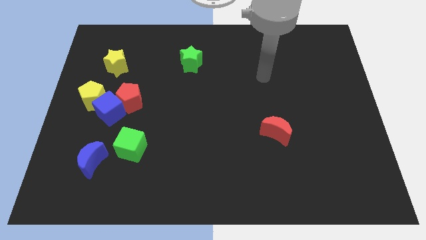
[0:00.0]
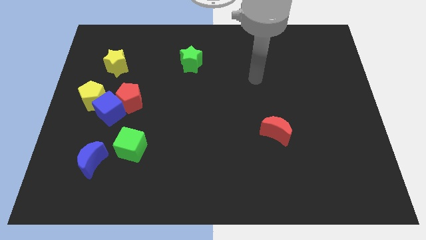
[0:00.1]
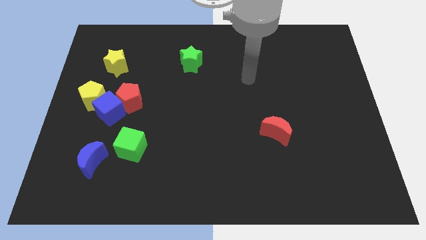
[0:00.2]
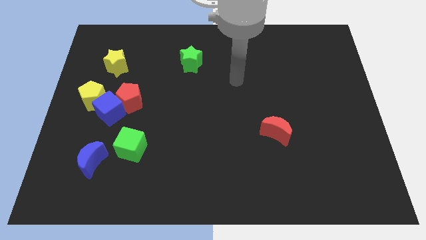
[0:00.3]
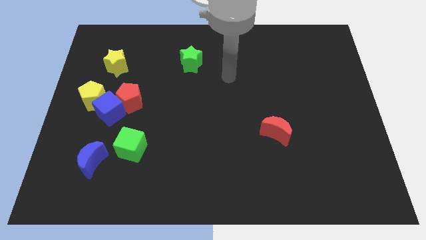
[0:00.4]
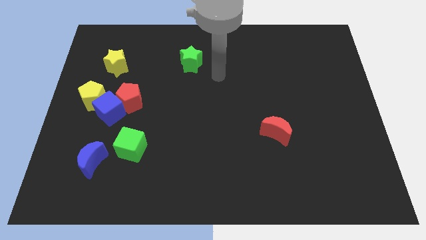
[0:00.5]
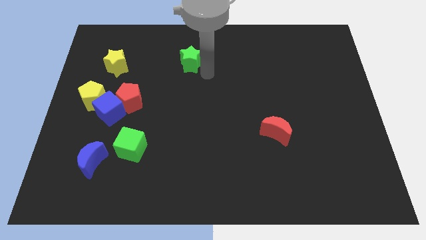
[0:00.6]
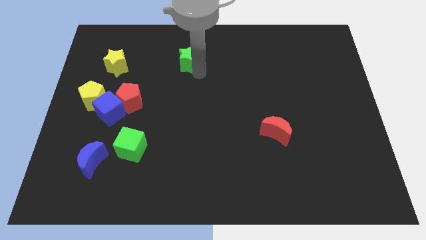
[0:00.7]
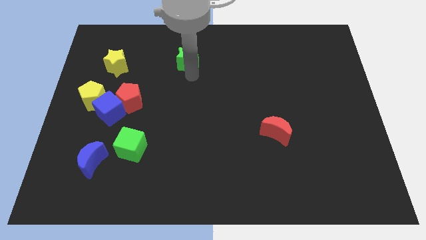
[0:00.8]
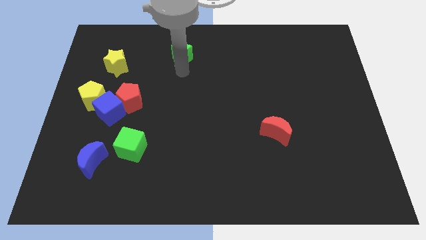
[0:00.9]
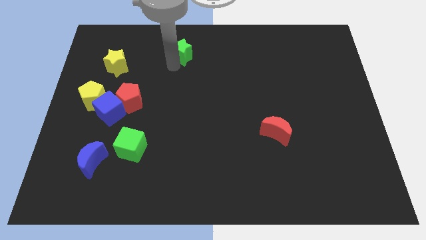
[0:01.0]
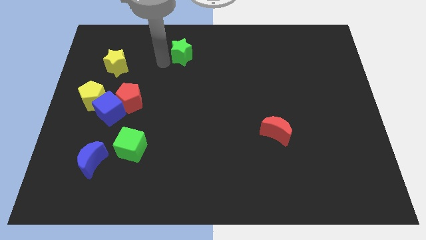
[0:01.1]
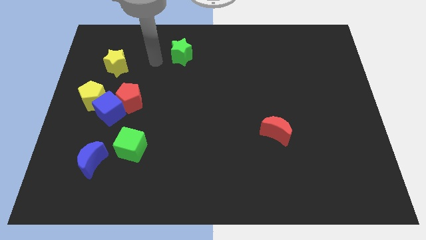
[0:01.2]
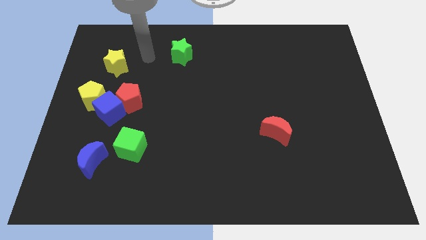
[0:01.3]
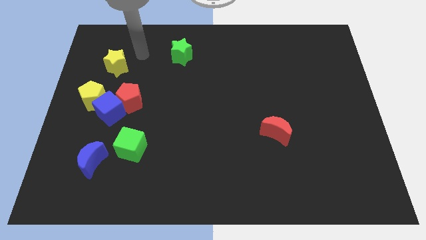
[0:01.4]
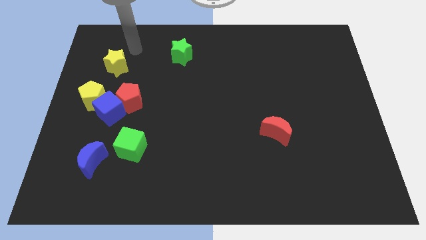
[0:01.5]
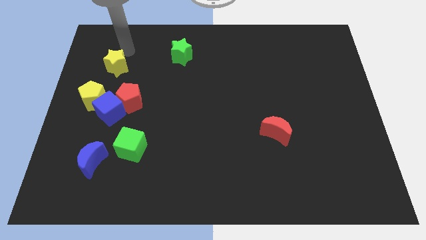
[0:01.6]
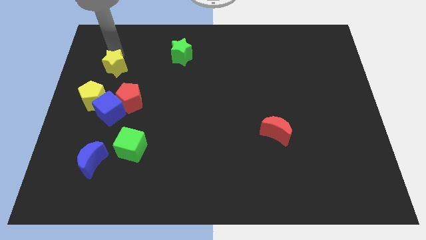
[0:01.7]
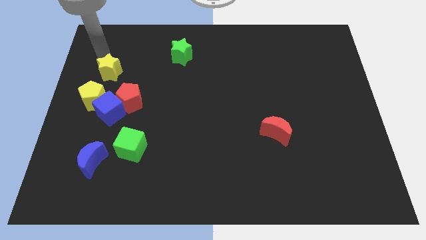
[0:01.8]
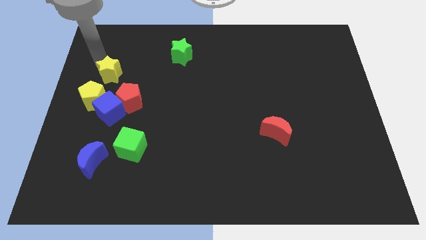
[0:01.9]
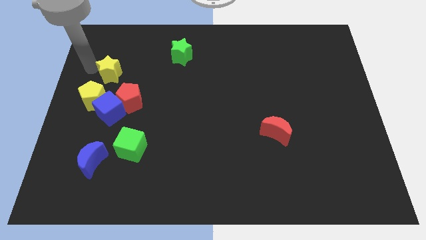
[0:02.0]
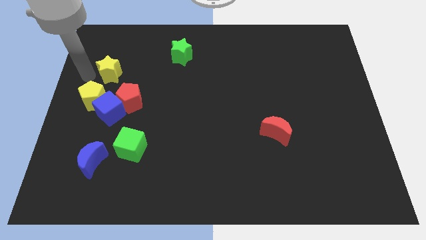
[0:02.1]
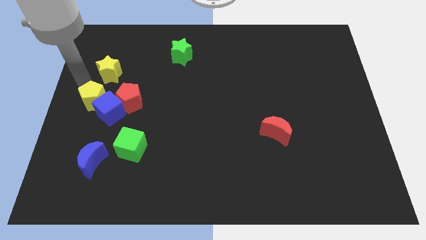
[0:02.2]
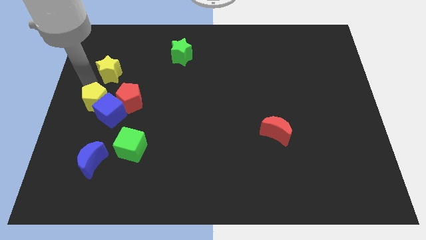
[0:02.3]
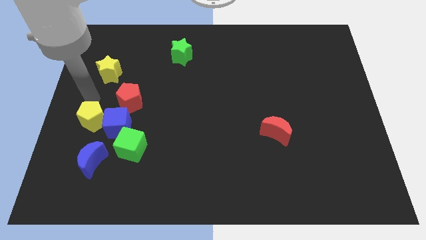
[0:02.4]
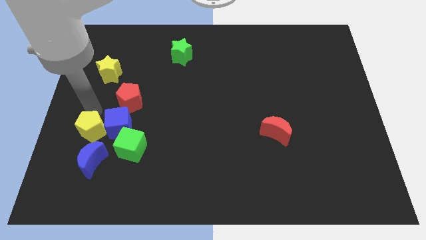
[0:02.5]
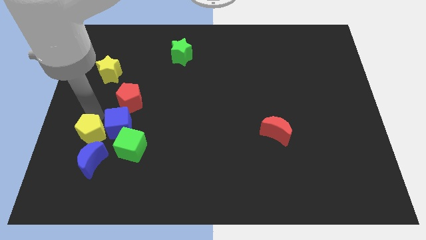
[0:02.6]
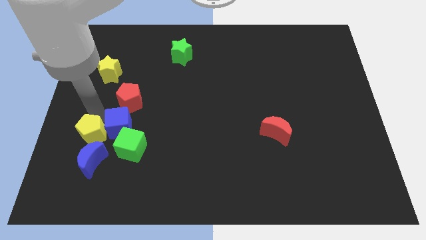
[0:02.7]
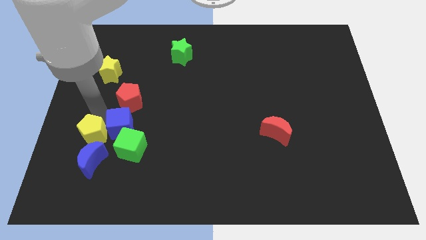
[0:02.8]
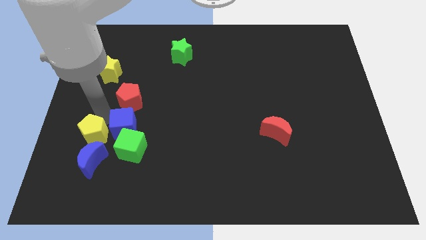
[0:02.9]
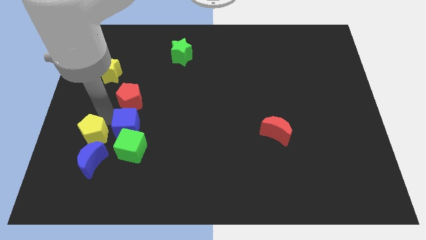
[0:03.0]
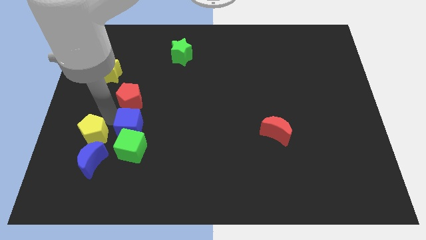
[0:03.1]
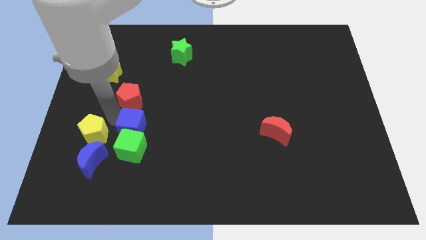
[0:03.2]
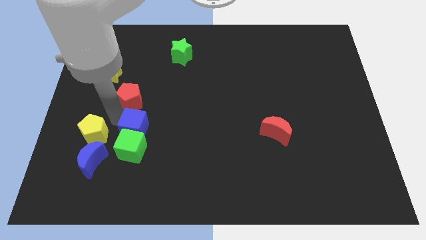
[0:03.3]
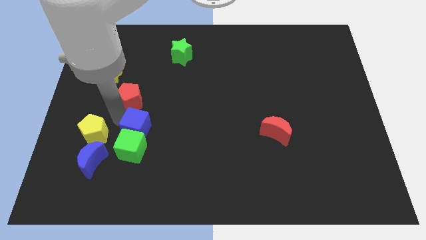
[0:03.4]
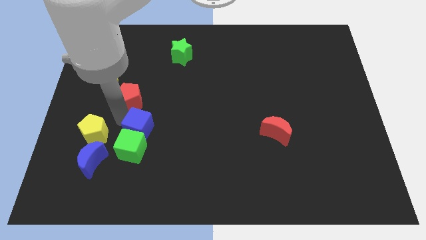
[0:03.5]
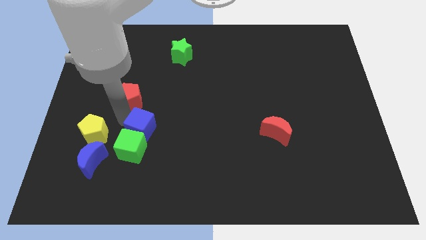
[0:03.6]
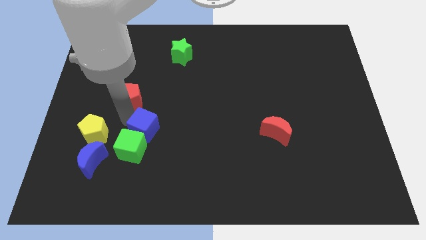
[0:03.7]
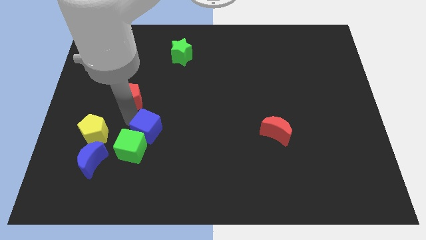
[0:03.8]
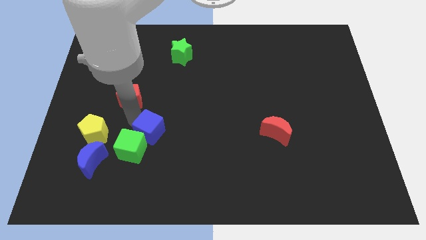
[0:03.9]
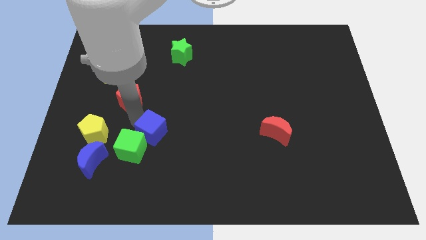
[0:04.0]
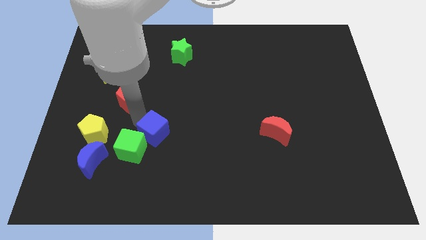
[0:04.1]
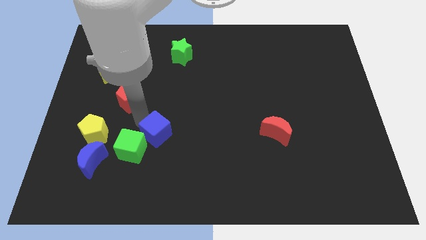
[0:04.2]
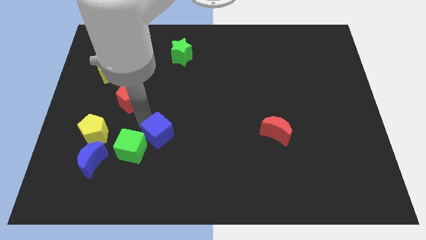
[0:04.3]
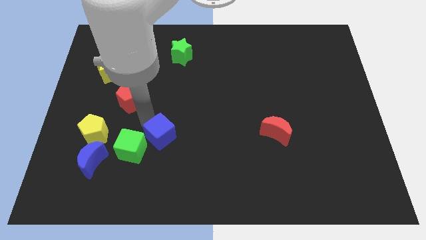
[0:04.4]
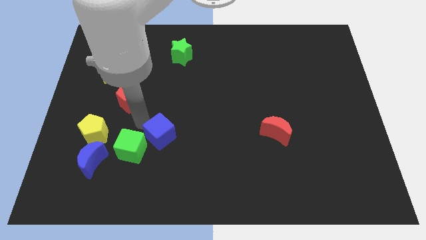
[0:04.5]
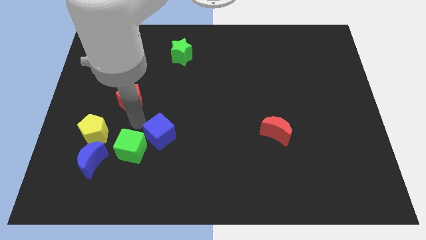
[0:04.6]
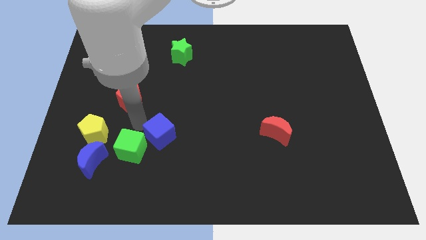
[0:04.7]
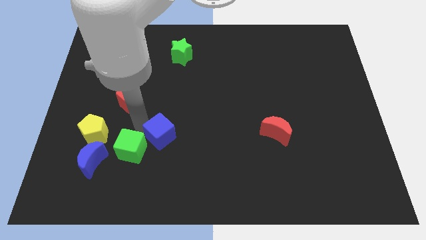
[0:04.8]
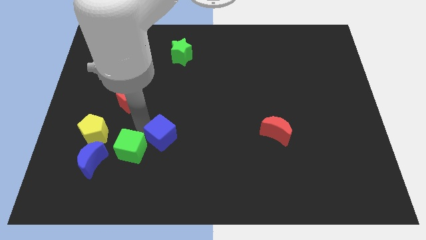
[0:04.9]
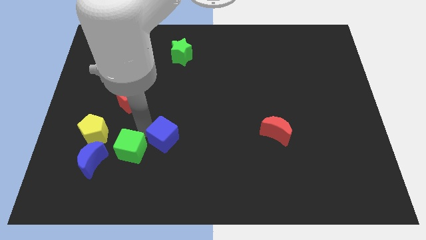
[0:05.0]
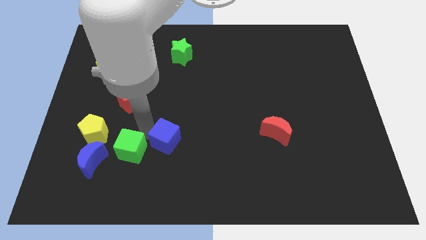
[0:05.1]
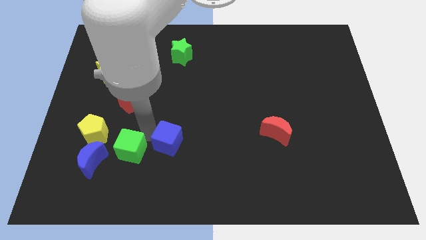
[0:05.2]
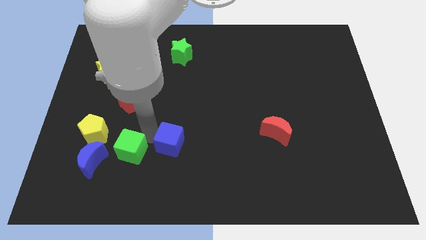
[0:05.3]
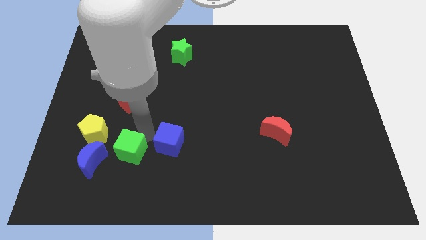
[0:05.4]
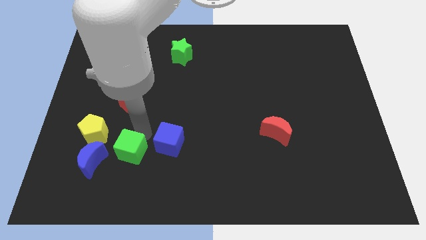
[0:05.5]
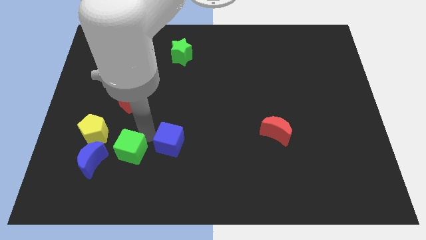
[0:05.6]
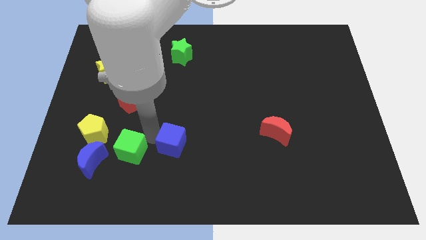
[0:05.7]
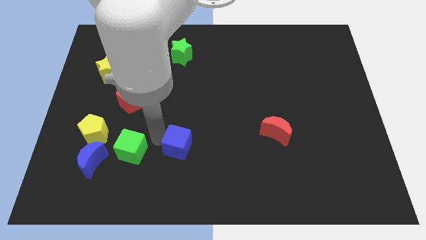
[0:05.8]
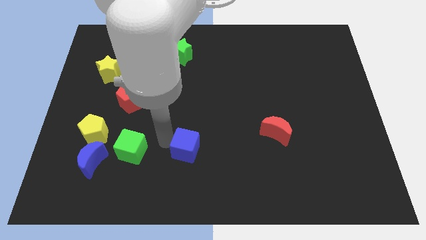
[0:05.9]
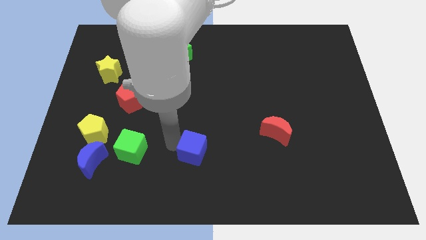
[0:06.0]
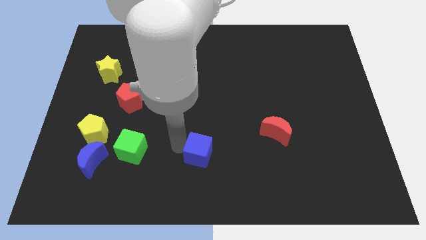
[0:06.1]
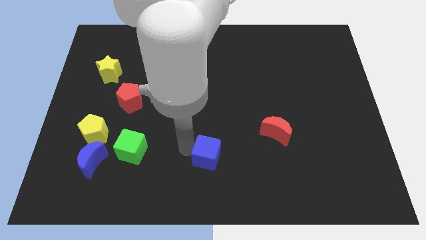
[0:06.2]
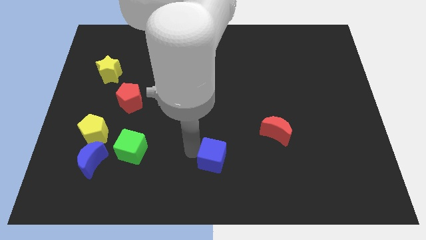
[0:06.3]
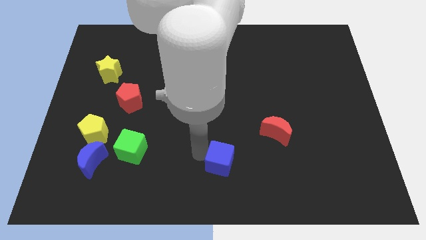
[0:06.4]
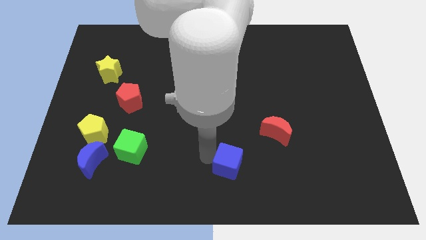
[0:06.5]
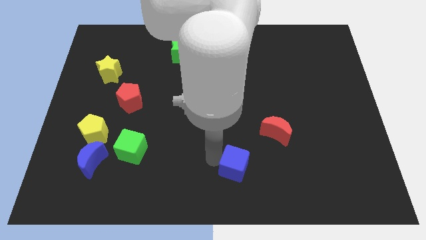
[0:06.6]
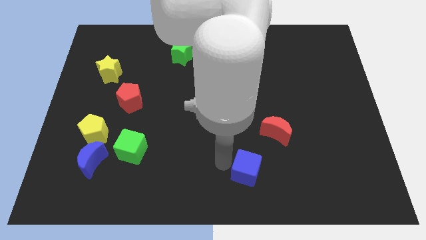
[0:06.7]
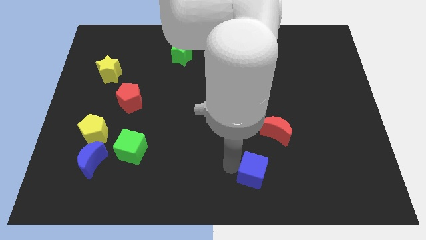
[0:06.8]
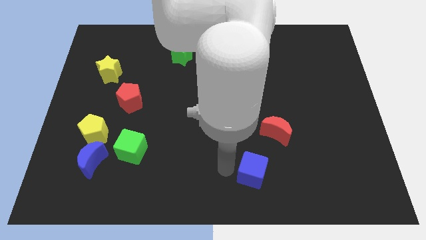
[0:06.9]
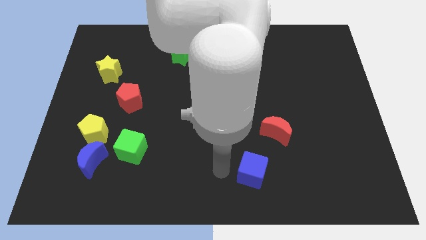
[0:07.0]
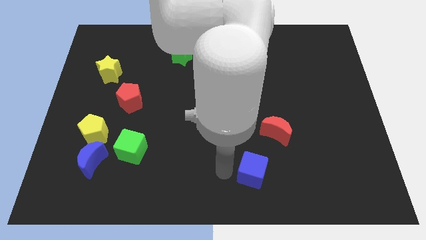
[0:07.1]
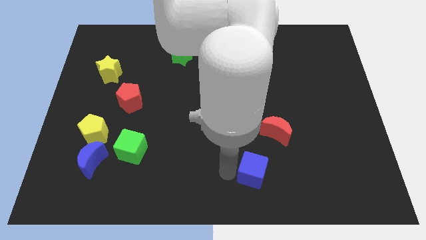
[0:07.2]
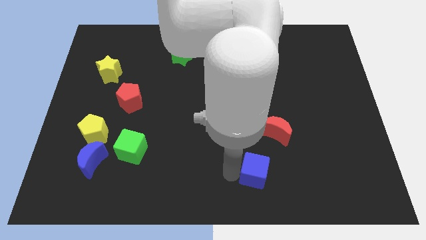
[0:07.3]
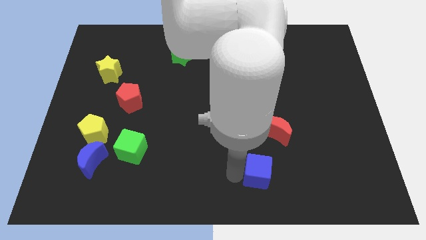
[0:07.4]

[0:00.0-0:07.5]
move the blue cube below the red moon
